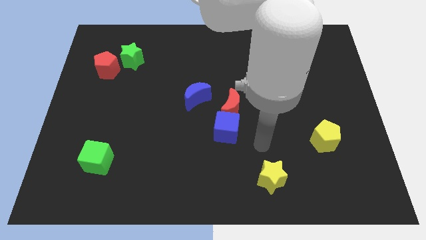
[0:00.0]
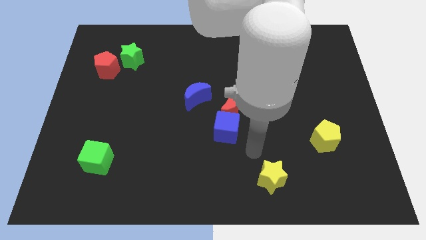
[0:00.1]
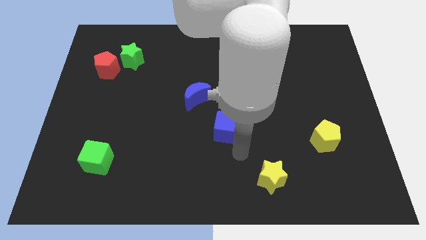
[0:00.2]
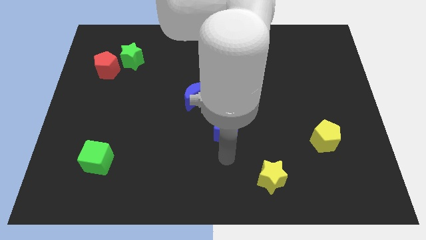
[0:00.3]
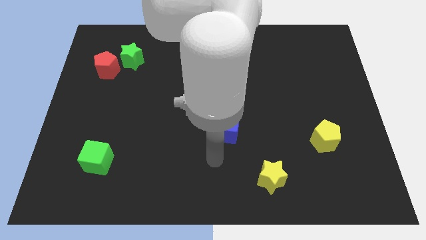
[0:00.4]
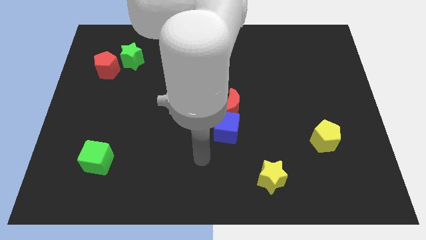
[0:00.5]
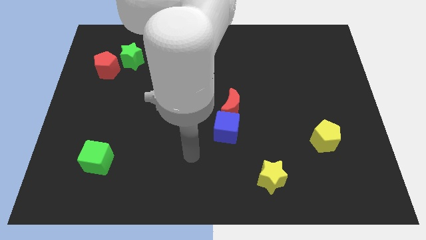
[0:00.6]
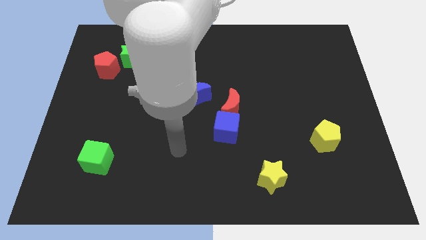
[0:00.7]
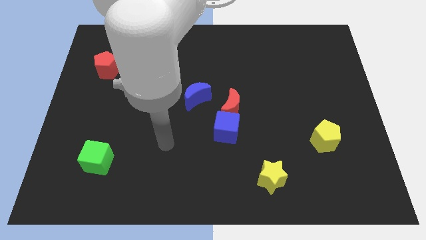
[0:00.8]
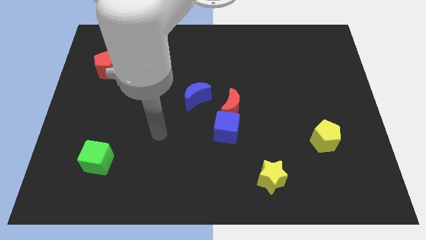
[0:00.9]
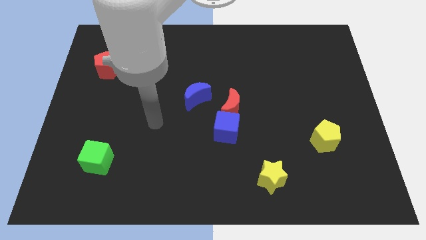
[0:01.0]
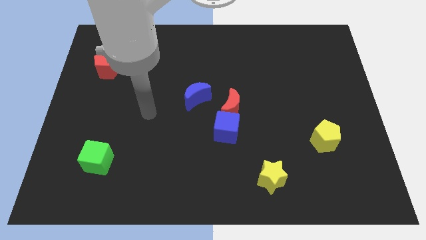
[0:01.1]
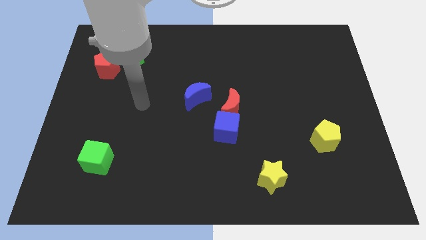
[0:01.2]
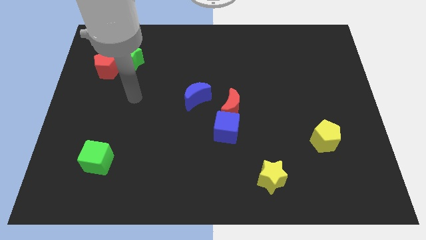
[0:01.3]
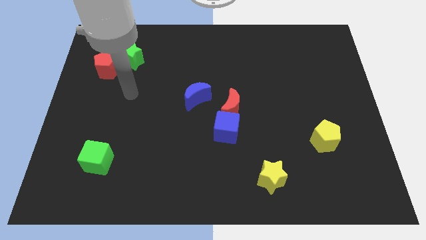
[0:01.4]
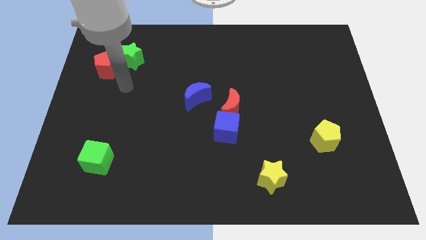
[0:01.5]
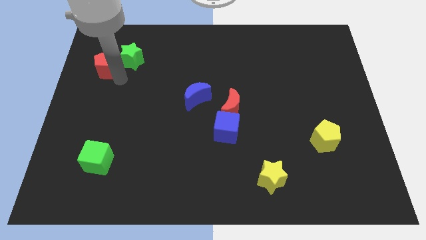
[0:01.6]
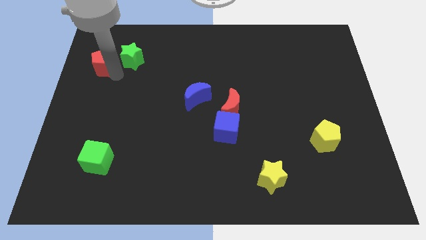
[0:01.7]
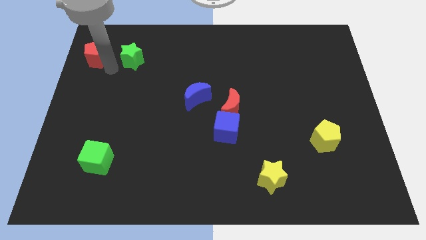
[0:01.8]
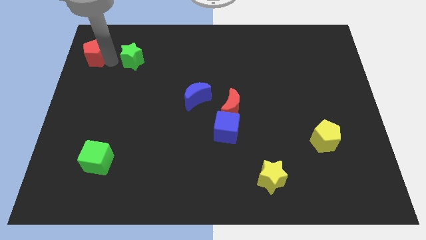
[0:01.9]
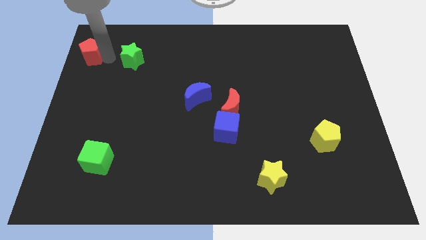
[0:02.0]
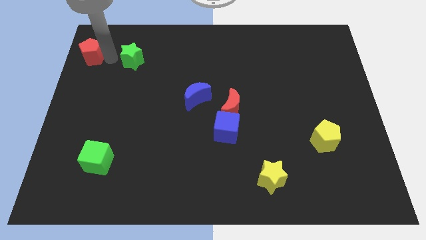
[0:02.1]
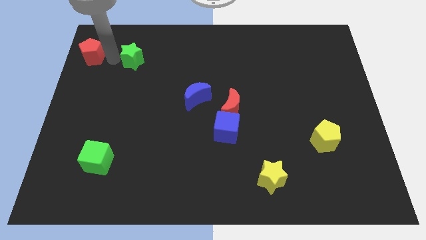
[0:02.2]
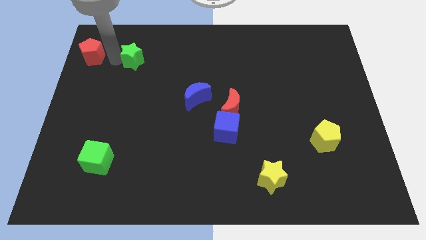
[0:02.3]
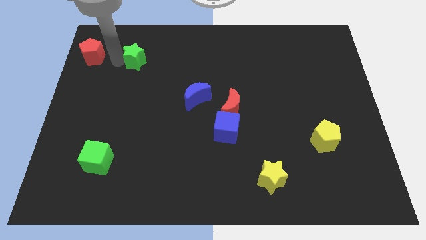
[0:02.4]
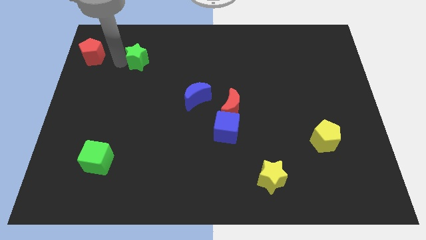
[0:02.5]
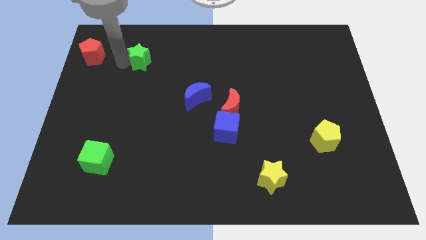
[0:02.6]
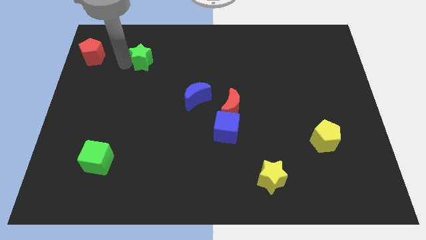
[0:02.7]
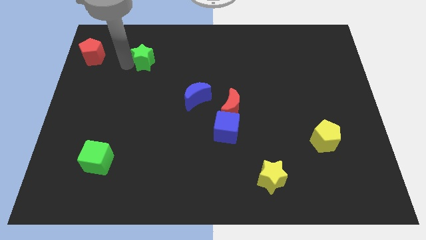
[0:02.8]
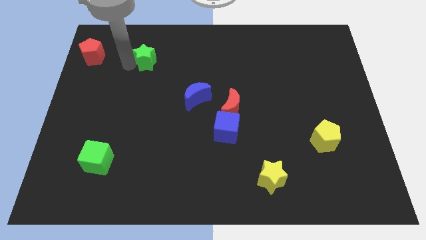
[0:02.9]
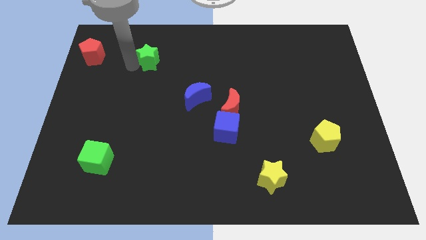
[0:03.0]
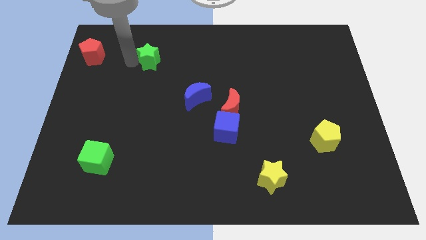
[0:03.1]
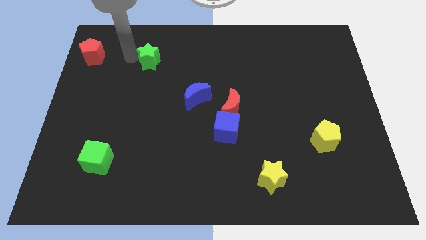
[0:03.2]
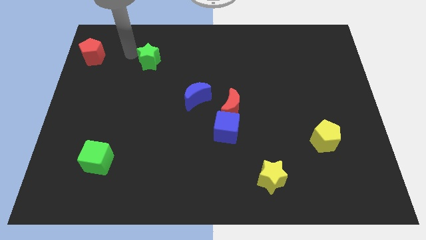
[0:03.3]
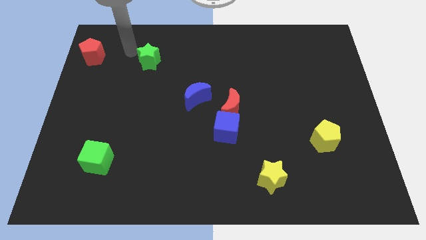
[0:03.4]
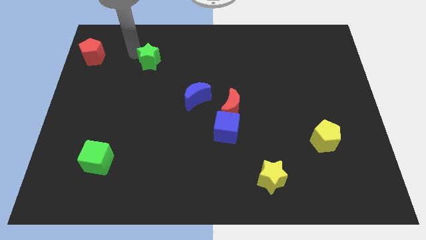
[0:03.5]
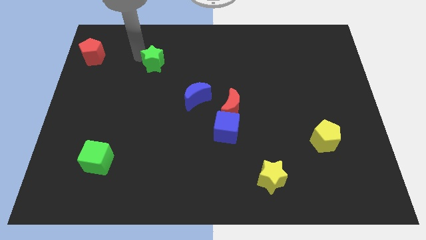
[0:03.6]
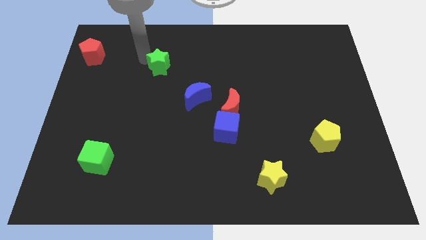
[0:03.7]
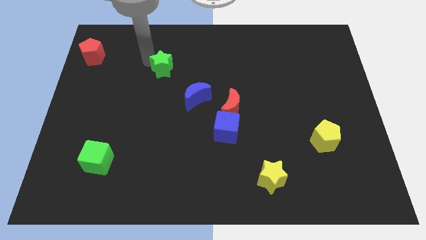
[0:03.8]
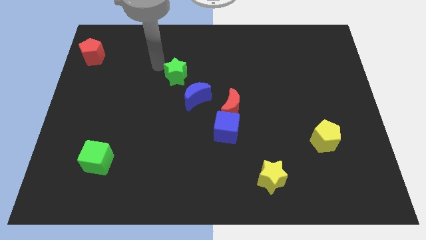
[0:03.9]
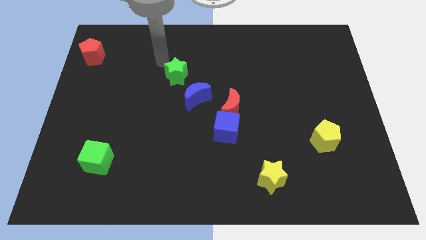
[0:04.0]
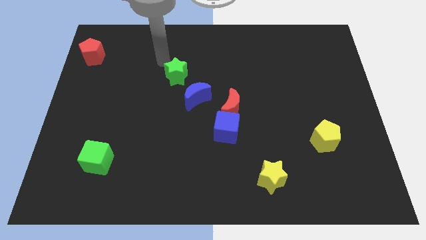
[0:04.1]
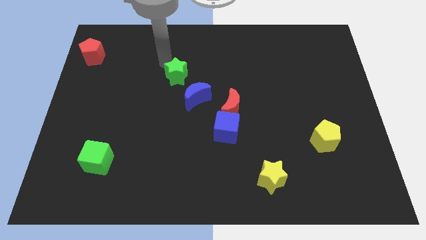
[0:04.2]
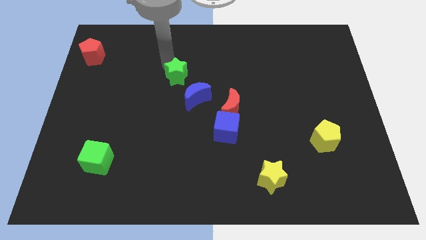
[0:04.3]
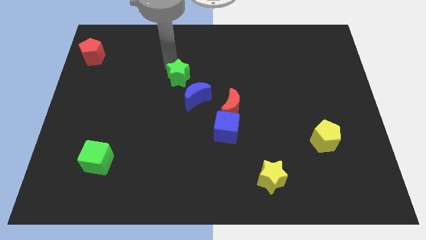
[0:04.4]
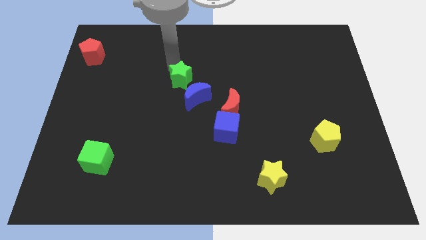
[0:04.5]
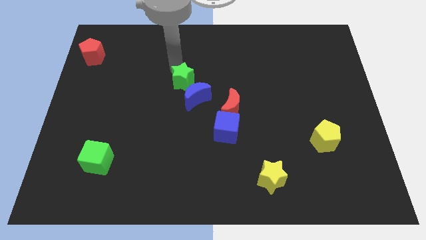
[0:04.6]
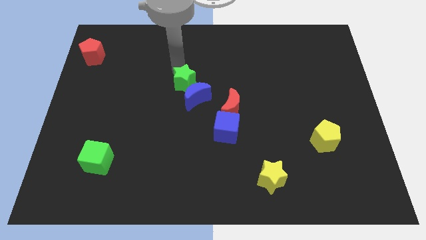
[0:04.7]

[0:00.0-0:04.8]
put the green star next to the blue moon

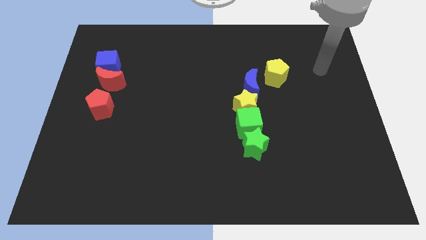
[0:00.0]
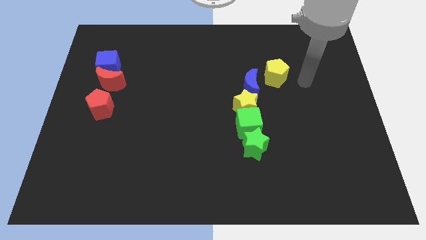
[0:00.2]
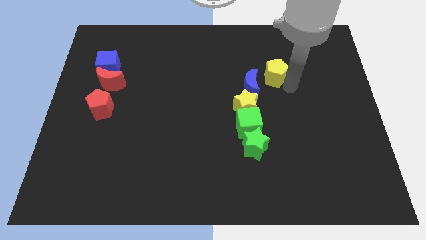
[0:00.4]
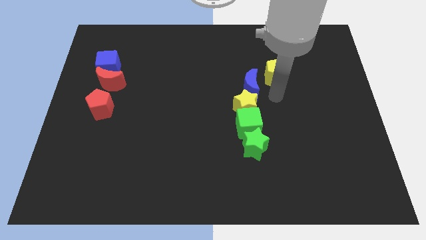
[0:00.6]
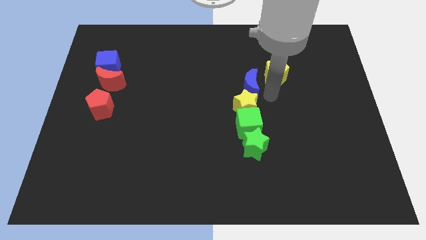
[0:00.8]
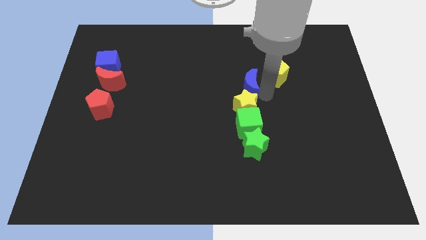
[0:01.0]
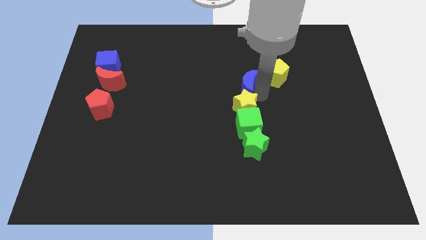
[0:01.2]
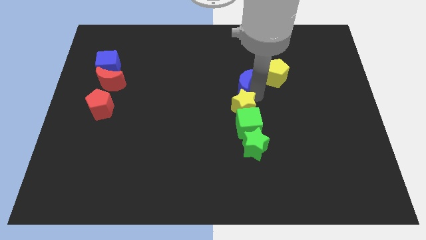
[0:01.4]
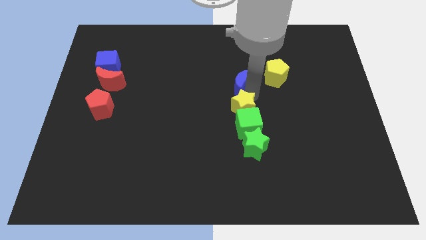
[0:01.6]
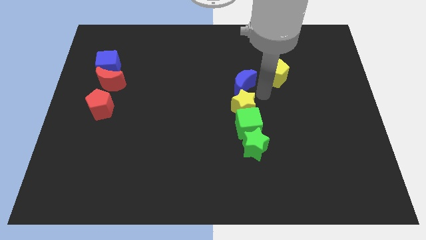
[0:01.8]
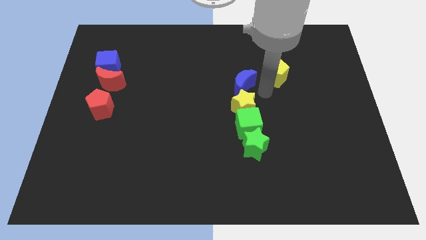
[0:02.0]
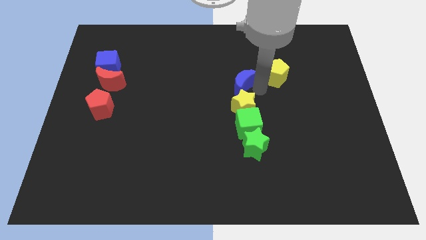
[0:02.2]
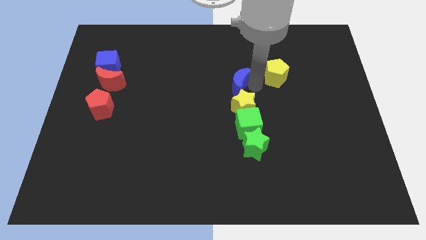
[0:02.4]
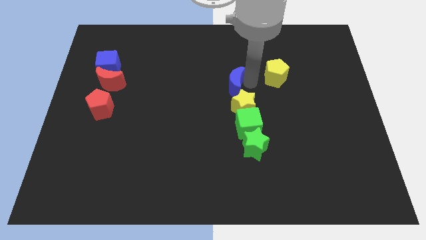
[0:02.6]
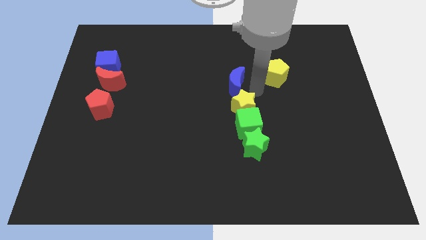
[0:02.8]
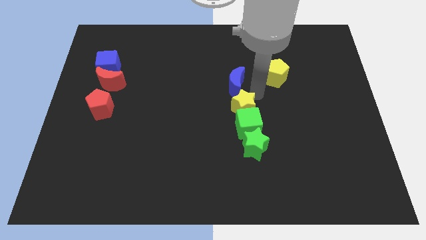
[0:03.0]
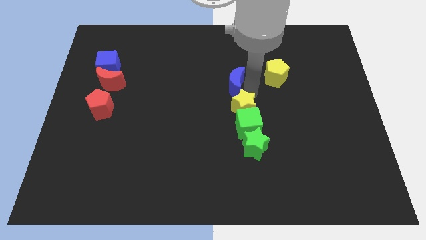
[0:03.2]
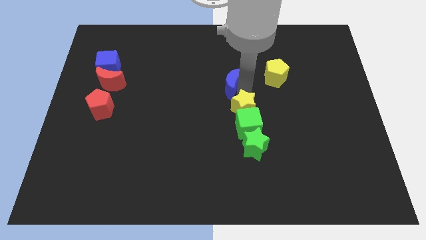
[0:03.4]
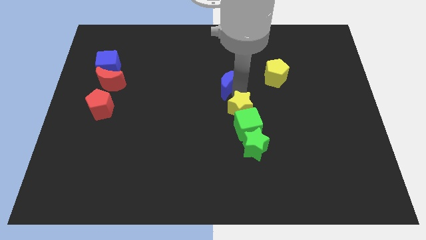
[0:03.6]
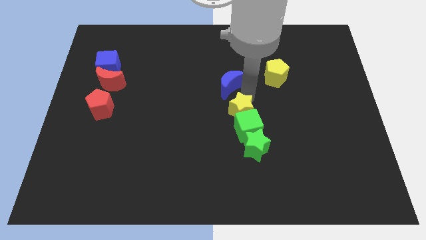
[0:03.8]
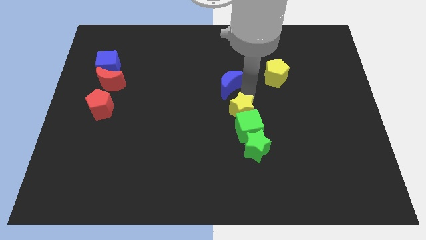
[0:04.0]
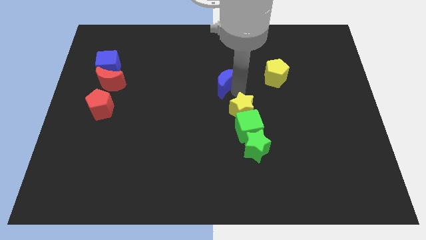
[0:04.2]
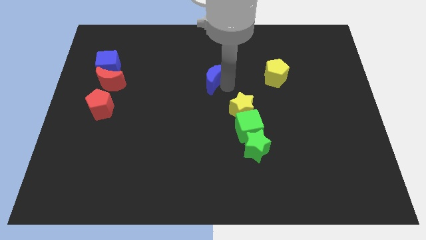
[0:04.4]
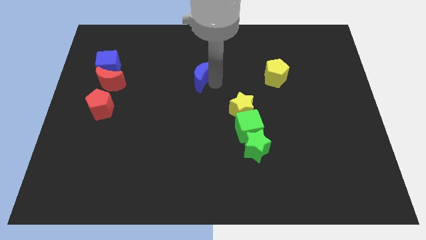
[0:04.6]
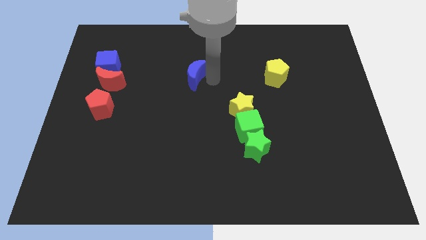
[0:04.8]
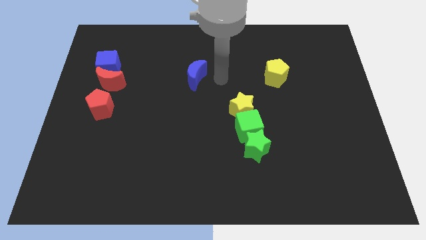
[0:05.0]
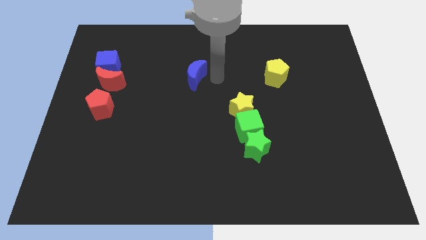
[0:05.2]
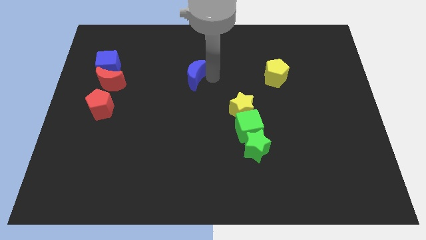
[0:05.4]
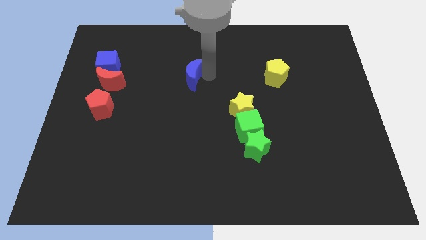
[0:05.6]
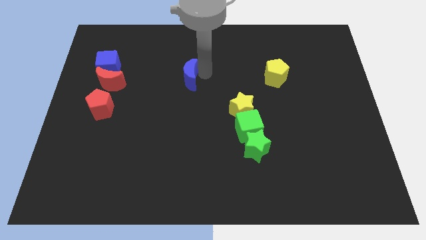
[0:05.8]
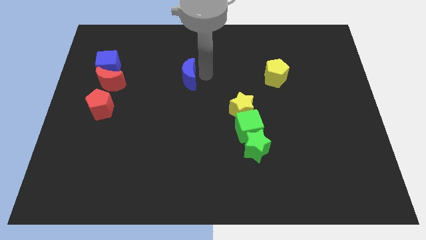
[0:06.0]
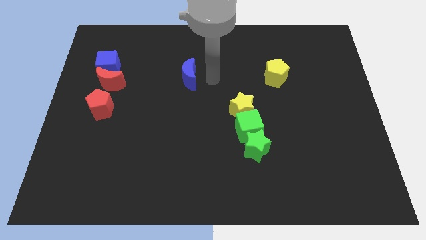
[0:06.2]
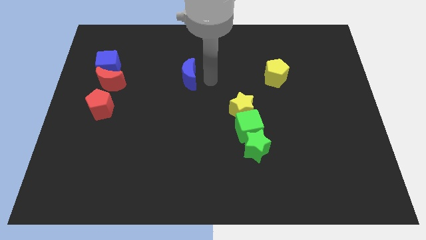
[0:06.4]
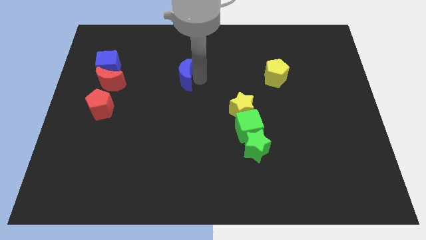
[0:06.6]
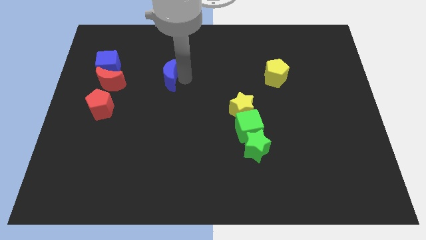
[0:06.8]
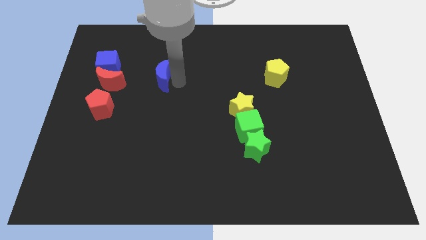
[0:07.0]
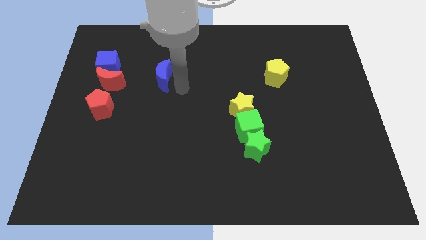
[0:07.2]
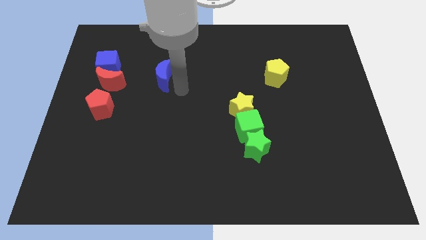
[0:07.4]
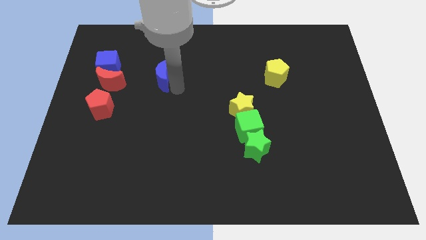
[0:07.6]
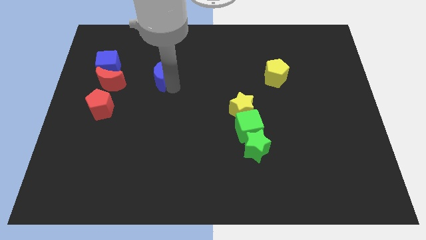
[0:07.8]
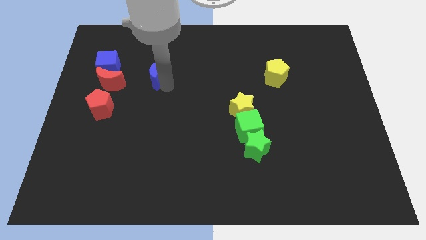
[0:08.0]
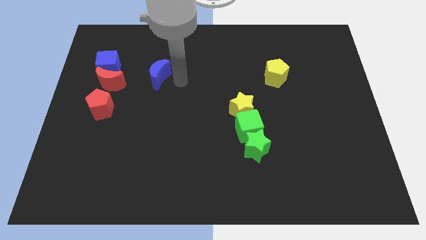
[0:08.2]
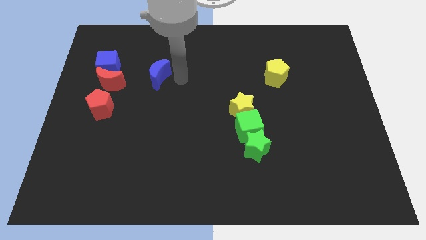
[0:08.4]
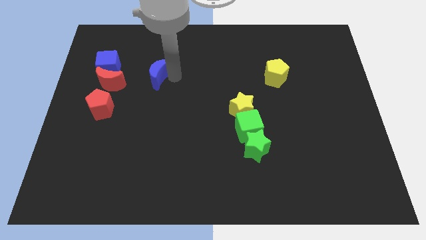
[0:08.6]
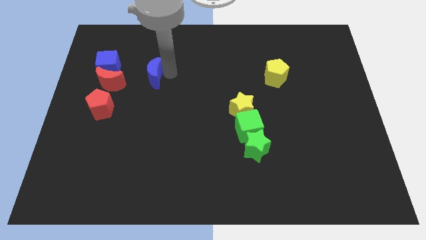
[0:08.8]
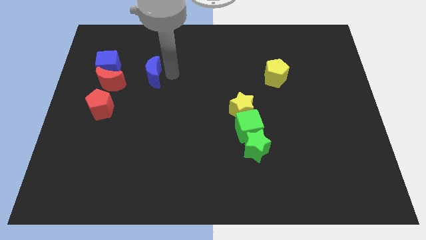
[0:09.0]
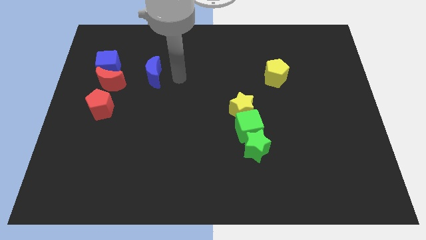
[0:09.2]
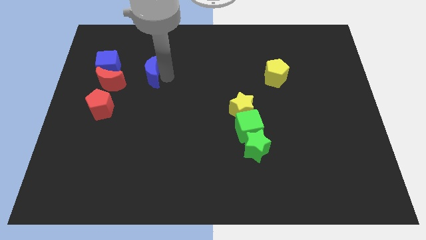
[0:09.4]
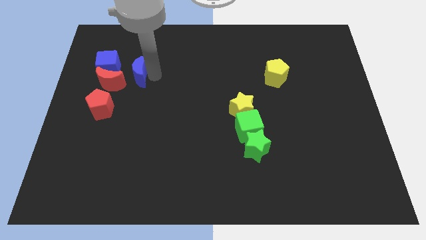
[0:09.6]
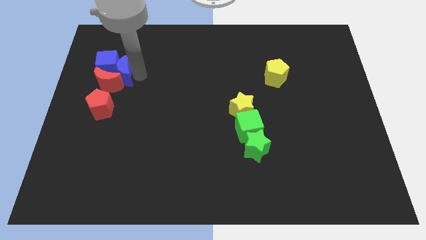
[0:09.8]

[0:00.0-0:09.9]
slide the blue moon next to the blue cube
